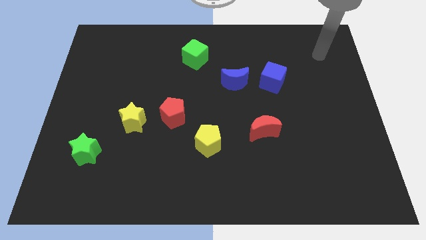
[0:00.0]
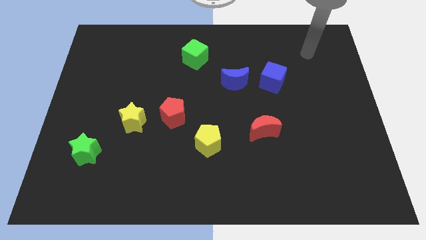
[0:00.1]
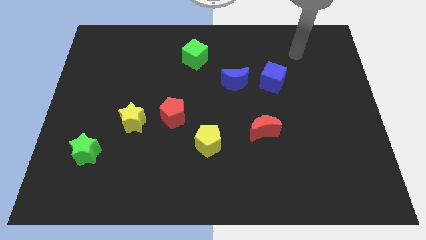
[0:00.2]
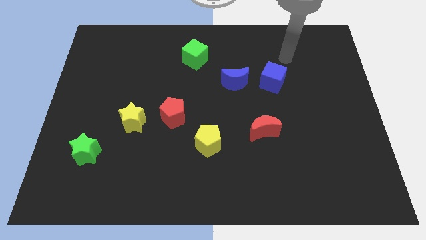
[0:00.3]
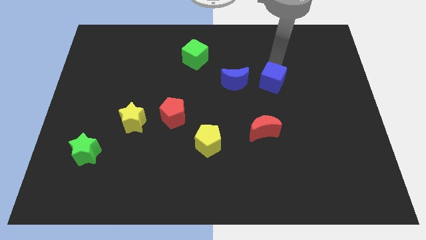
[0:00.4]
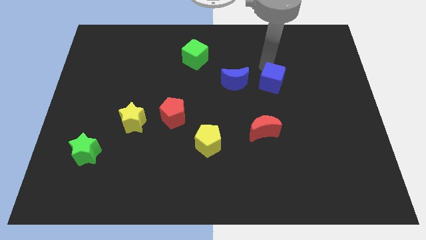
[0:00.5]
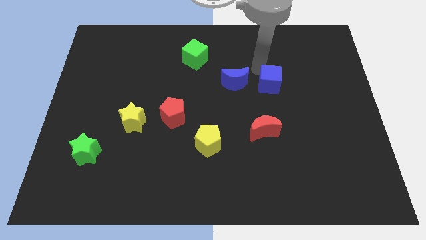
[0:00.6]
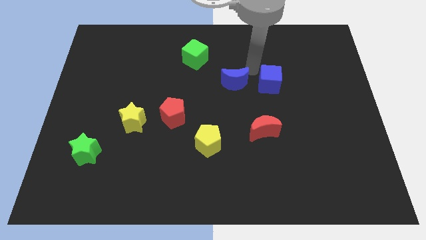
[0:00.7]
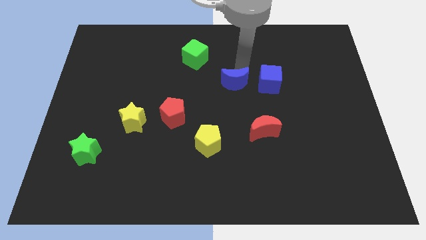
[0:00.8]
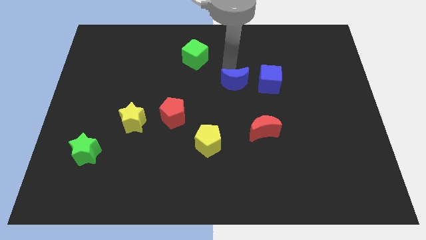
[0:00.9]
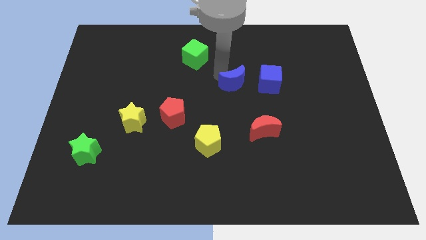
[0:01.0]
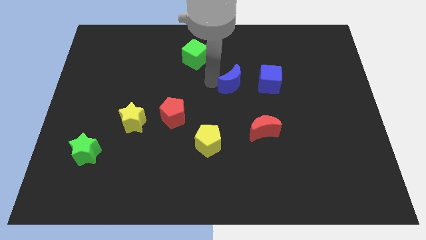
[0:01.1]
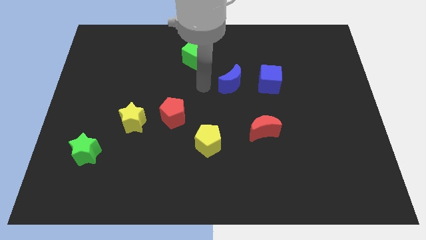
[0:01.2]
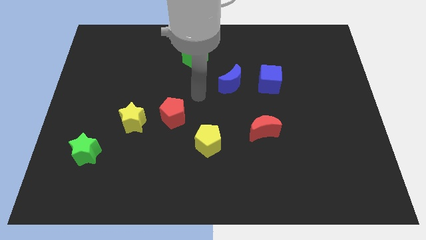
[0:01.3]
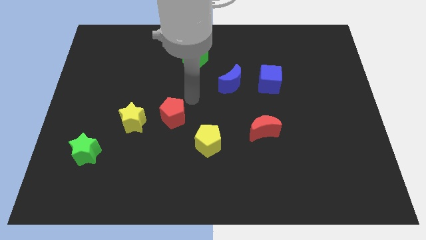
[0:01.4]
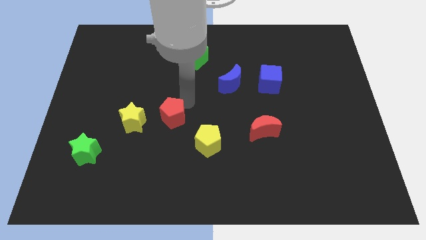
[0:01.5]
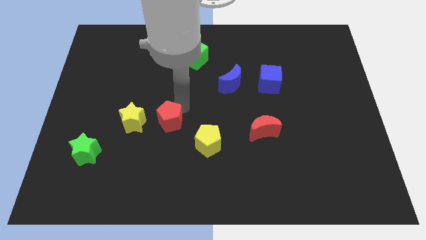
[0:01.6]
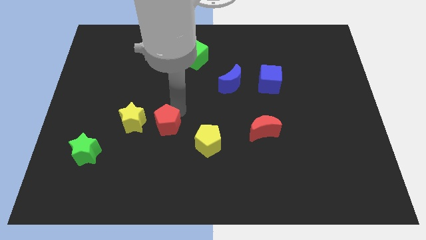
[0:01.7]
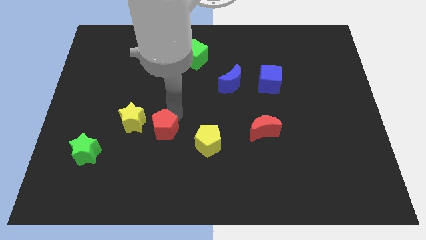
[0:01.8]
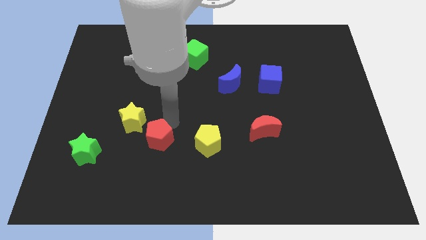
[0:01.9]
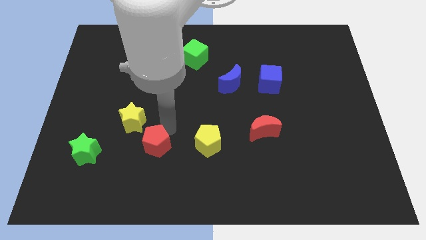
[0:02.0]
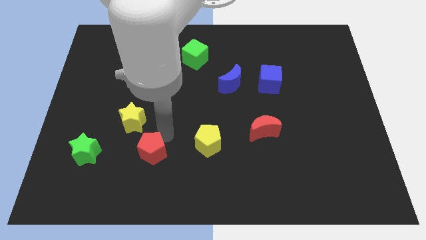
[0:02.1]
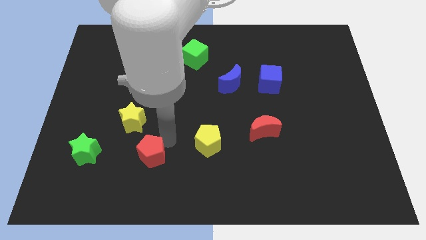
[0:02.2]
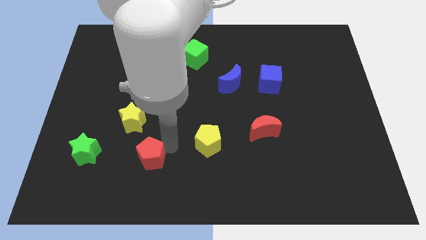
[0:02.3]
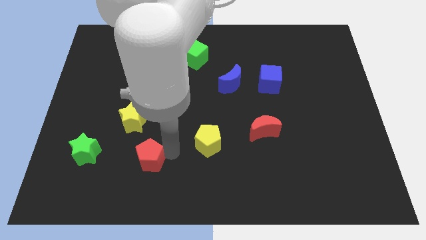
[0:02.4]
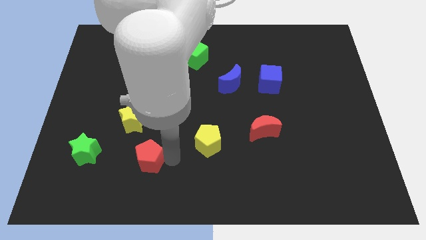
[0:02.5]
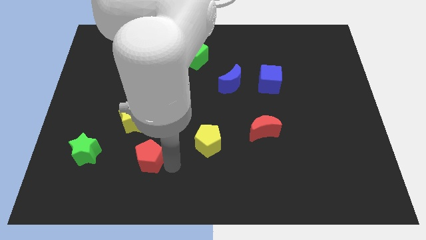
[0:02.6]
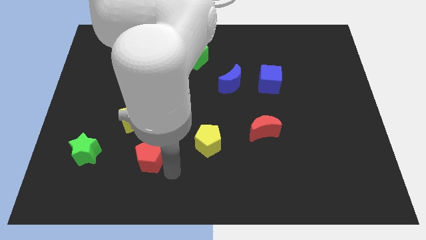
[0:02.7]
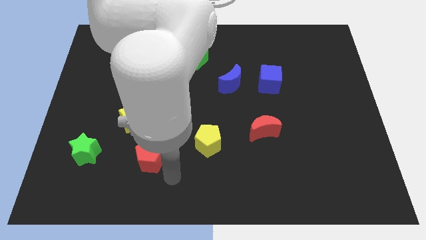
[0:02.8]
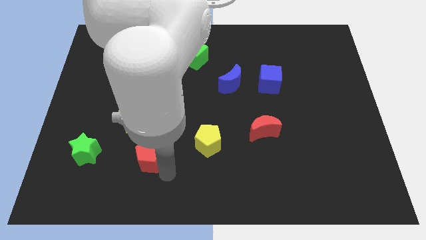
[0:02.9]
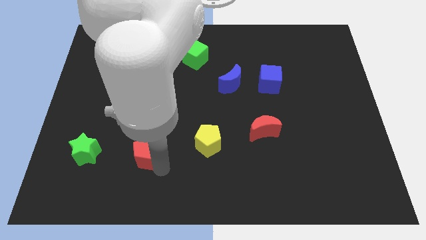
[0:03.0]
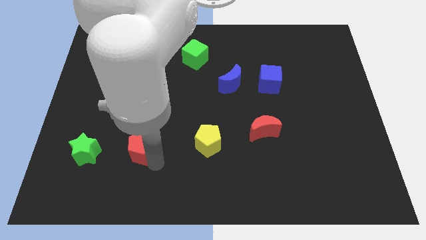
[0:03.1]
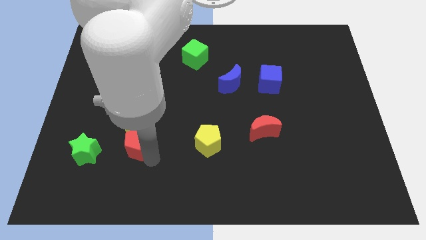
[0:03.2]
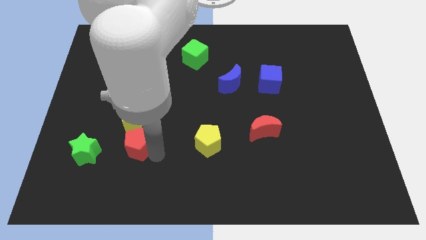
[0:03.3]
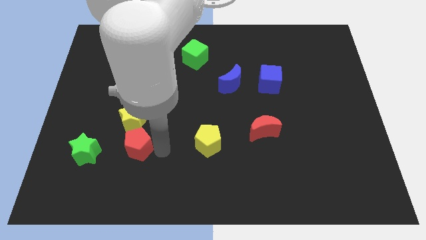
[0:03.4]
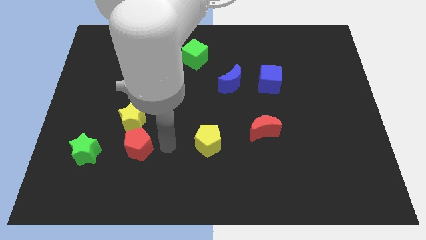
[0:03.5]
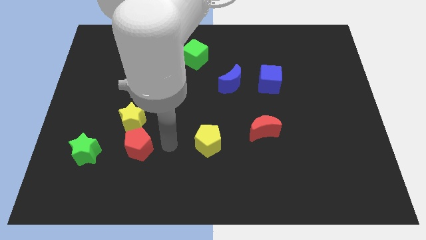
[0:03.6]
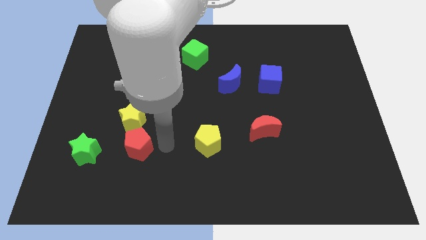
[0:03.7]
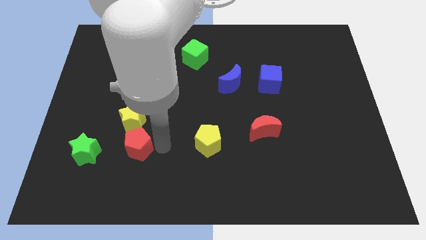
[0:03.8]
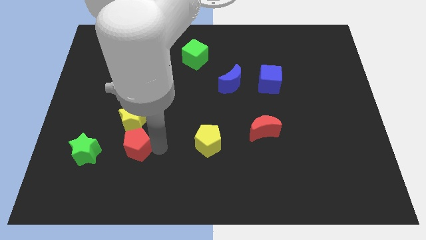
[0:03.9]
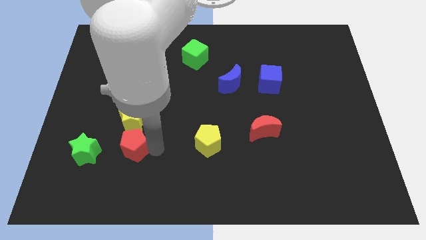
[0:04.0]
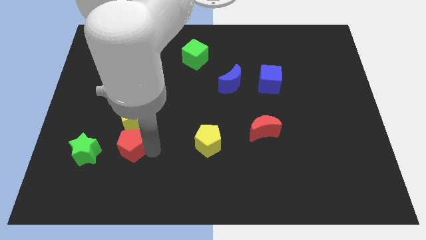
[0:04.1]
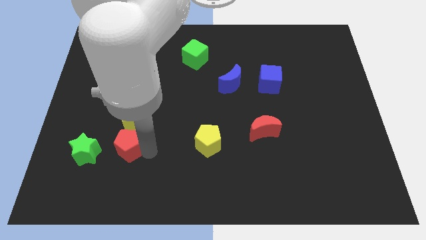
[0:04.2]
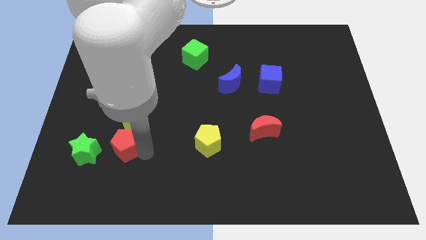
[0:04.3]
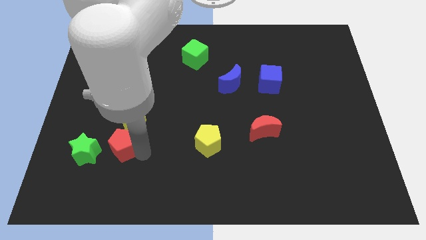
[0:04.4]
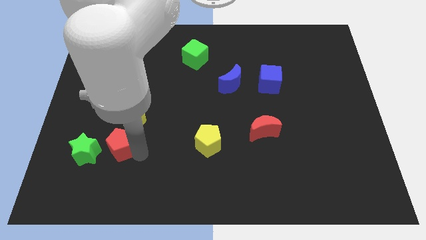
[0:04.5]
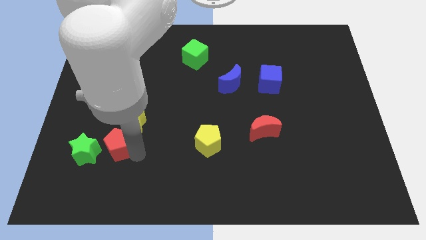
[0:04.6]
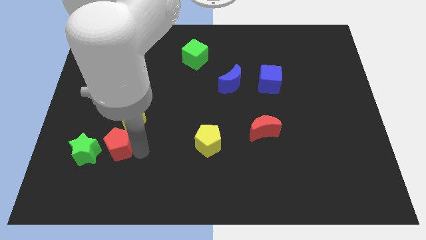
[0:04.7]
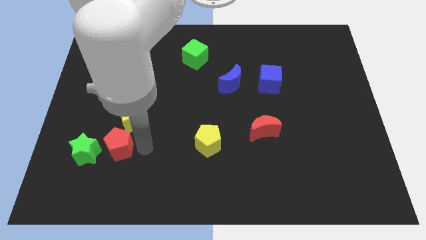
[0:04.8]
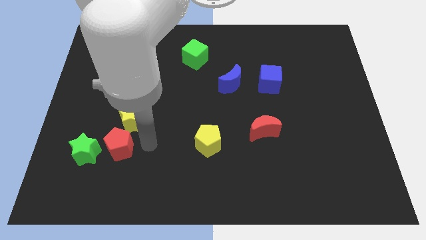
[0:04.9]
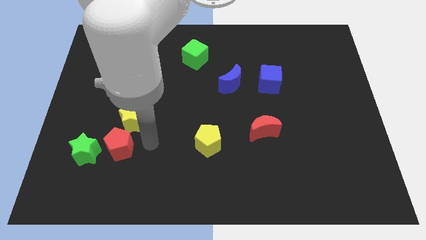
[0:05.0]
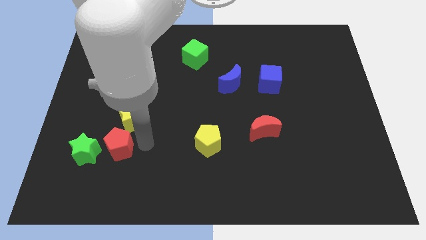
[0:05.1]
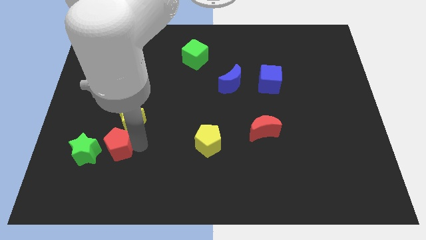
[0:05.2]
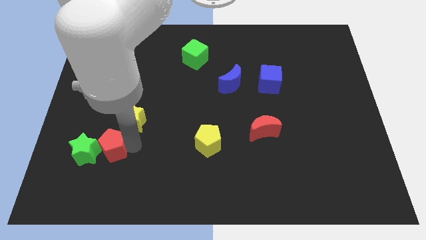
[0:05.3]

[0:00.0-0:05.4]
put the red pentagon close to the green star

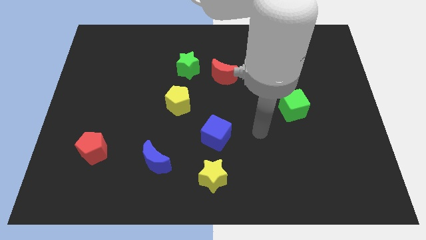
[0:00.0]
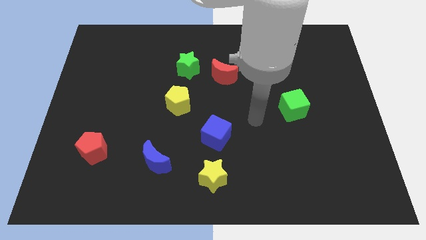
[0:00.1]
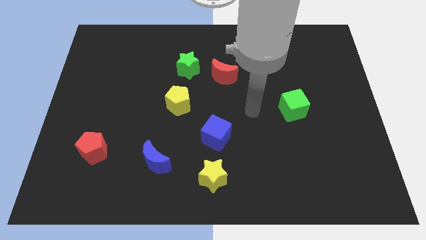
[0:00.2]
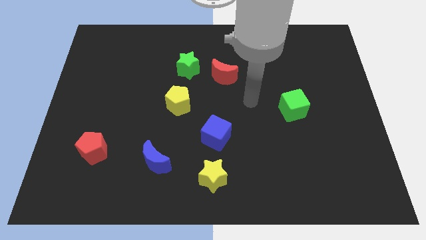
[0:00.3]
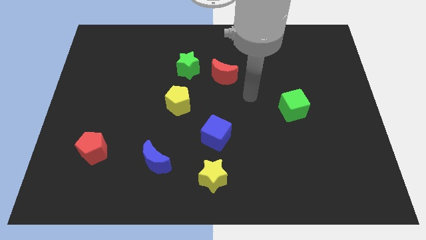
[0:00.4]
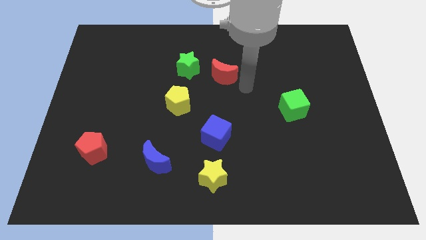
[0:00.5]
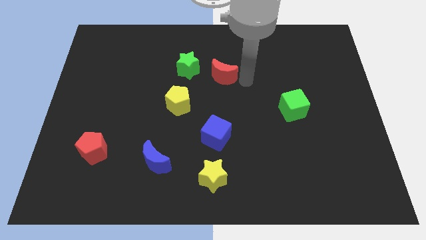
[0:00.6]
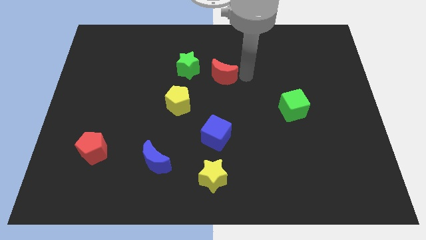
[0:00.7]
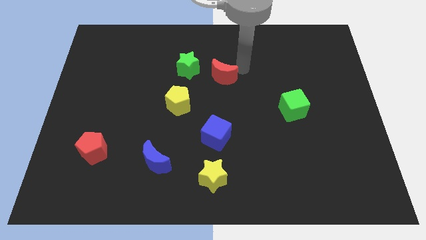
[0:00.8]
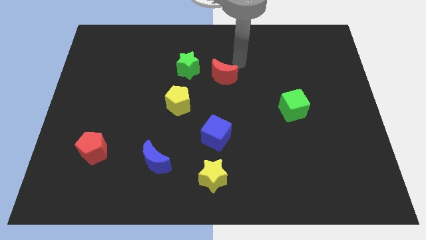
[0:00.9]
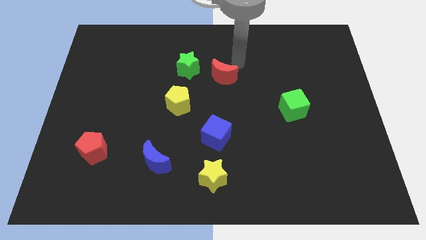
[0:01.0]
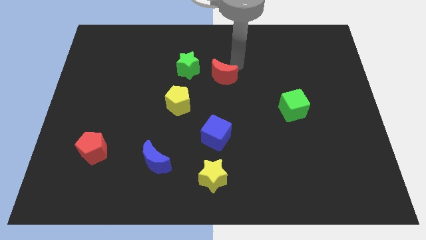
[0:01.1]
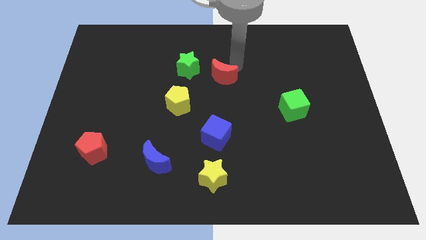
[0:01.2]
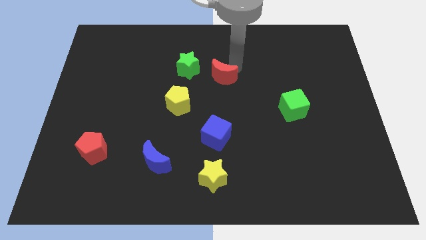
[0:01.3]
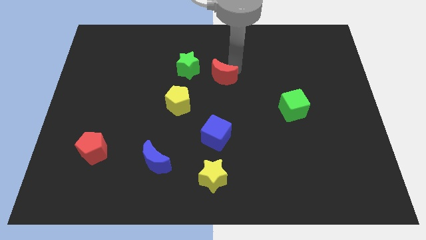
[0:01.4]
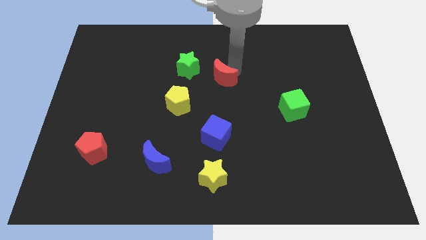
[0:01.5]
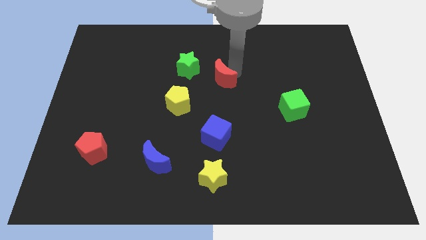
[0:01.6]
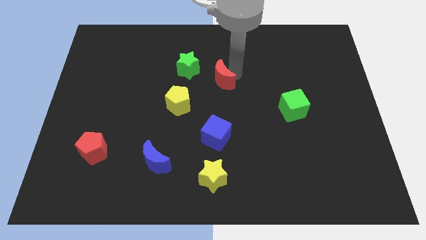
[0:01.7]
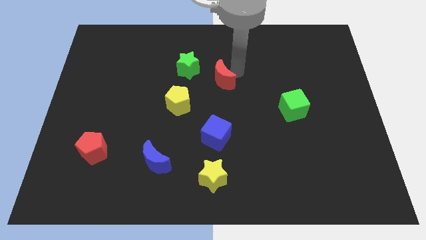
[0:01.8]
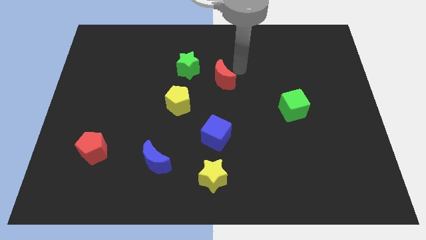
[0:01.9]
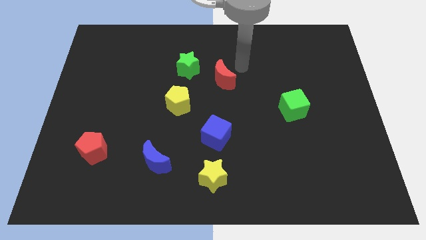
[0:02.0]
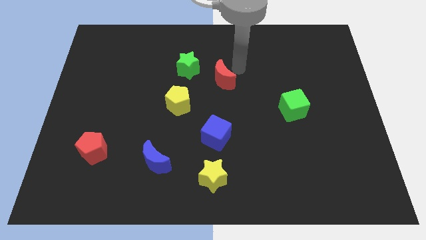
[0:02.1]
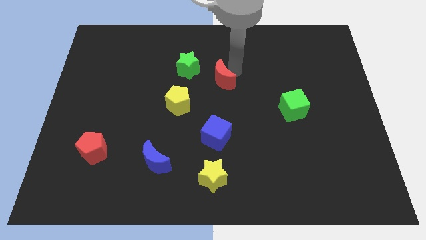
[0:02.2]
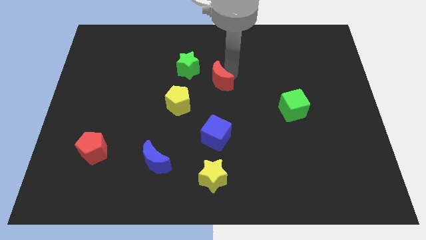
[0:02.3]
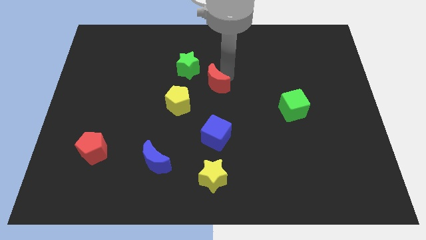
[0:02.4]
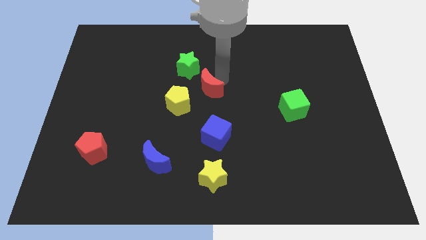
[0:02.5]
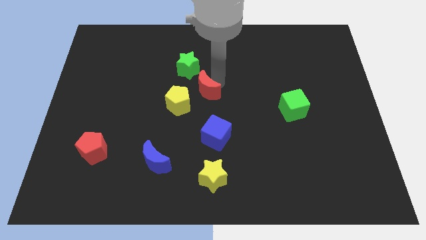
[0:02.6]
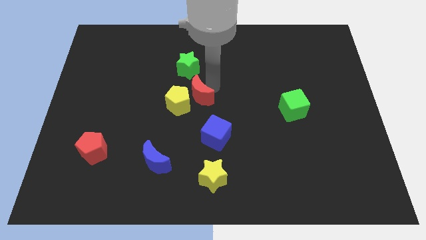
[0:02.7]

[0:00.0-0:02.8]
put the red moon towards the yellow pentagon
